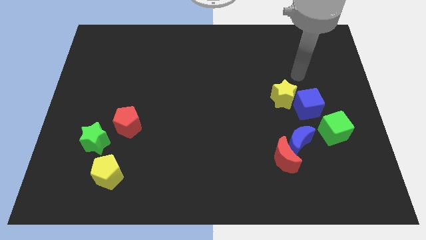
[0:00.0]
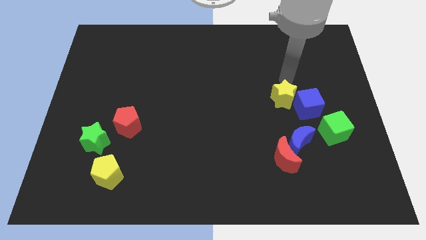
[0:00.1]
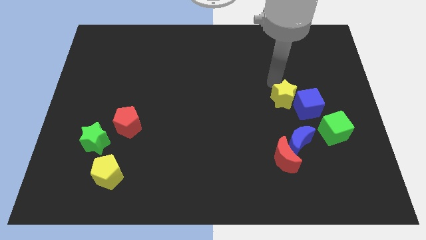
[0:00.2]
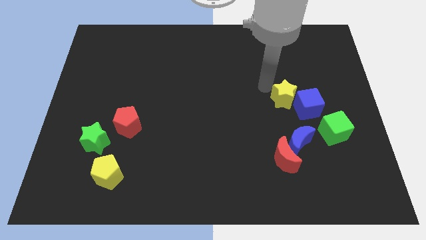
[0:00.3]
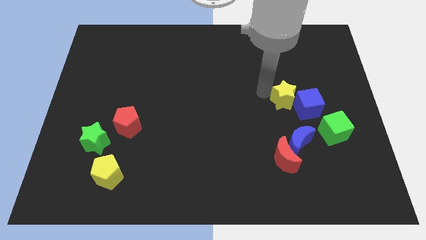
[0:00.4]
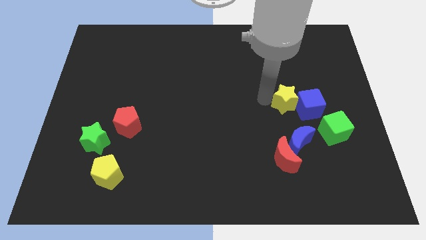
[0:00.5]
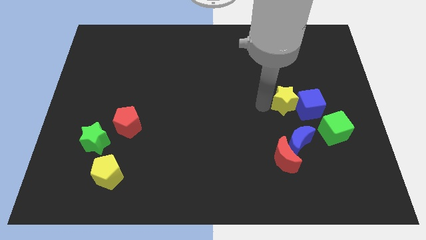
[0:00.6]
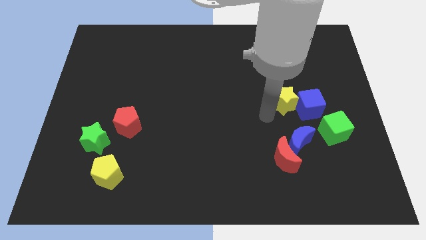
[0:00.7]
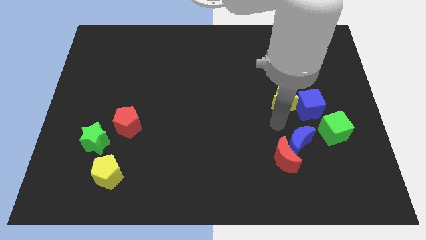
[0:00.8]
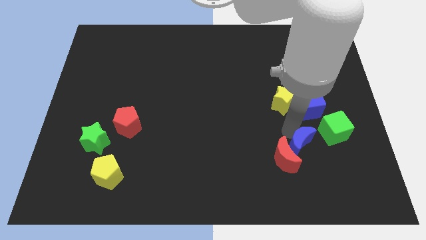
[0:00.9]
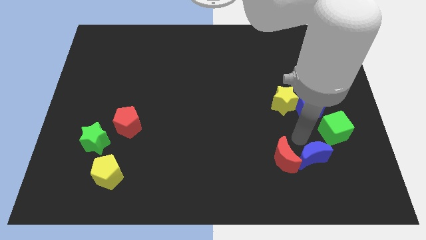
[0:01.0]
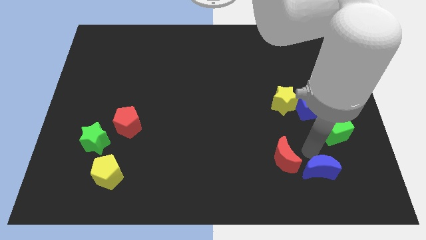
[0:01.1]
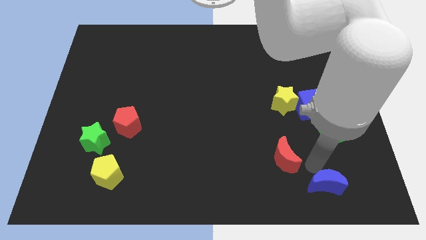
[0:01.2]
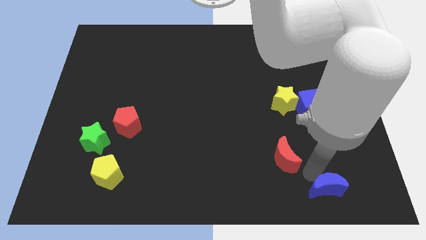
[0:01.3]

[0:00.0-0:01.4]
move the red moon away from the blue moon

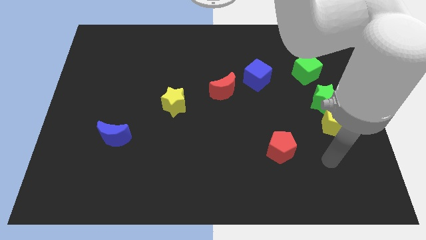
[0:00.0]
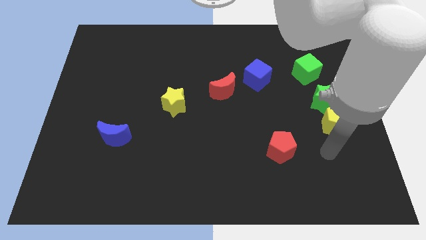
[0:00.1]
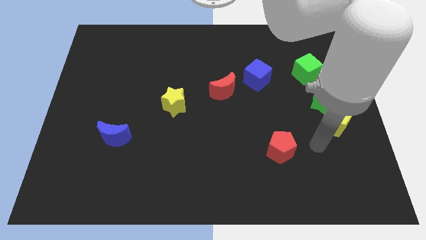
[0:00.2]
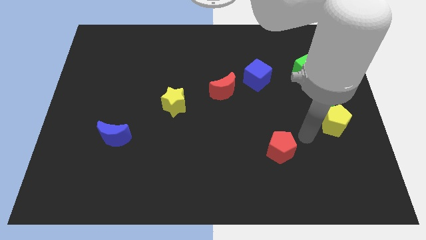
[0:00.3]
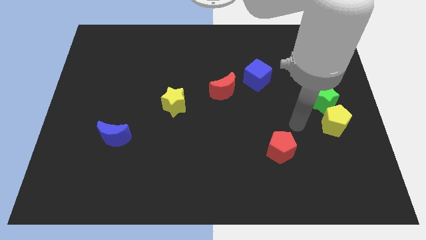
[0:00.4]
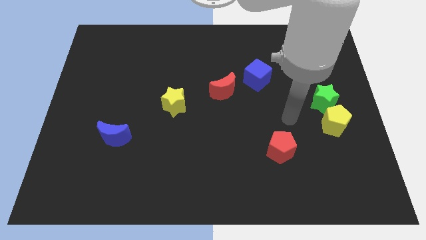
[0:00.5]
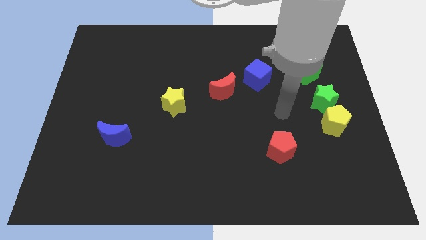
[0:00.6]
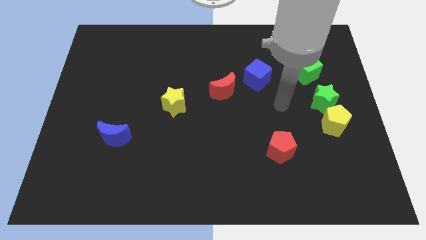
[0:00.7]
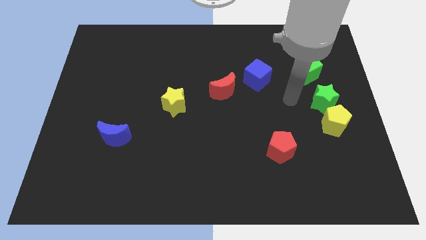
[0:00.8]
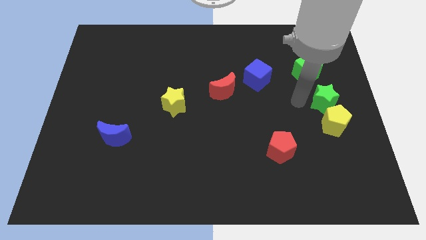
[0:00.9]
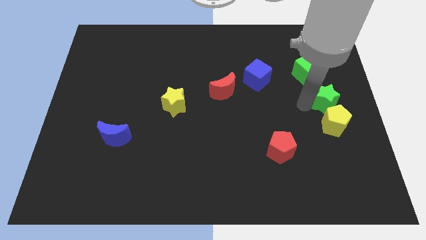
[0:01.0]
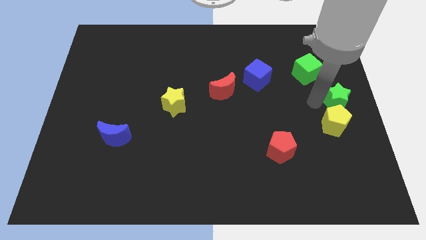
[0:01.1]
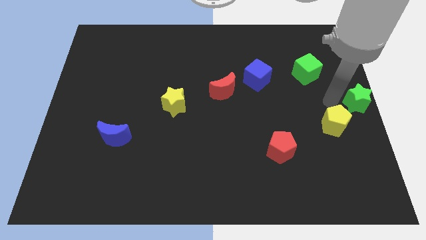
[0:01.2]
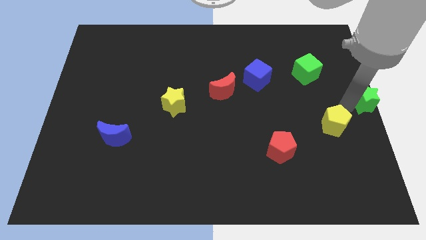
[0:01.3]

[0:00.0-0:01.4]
move the yellow pentagon away from the green star

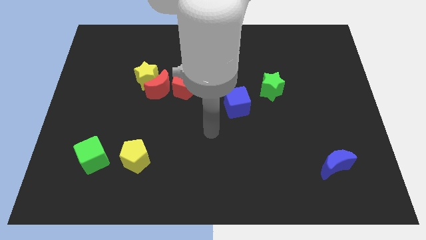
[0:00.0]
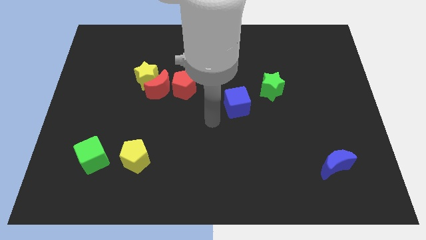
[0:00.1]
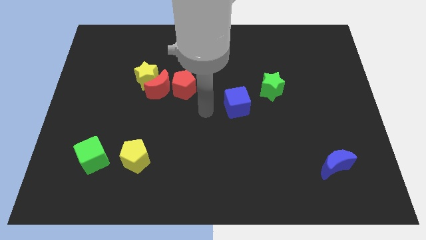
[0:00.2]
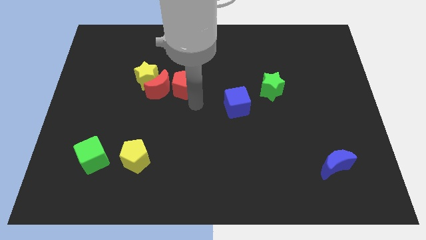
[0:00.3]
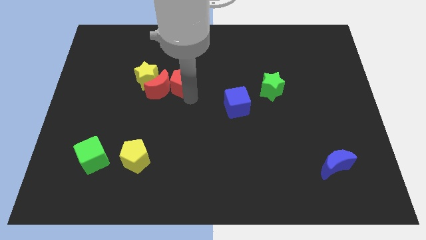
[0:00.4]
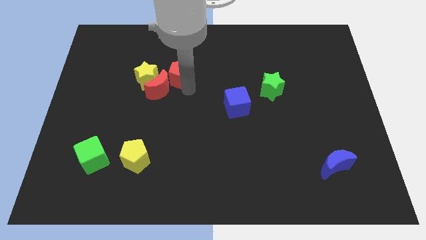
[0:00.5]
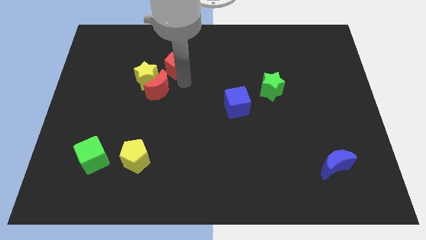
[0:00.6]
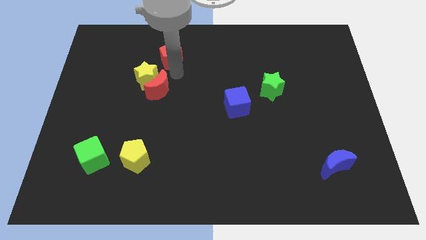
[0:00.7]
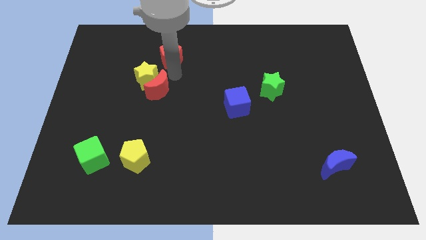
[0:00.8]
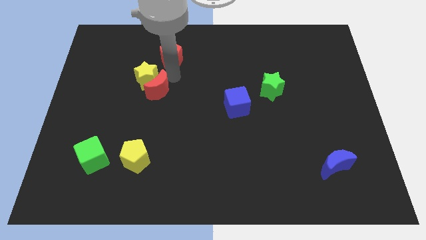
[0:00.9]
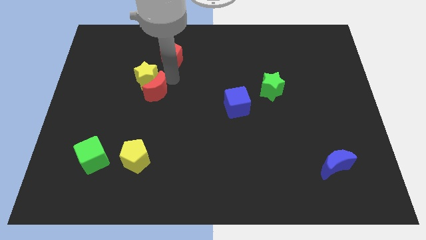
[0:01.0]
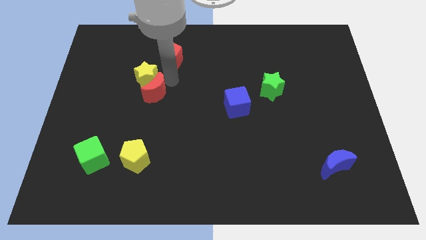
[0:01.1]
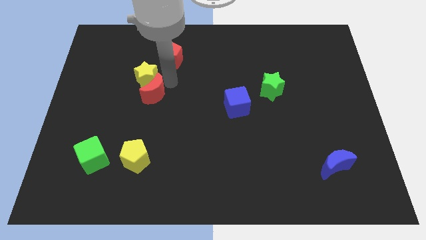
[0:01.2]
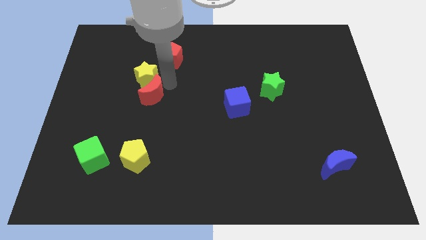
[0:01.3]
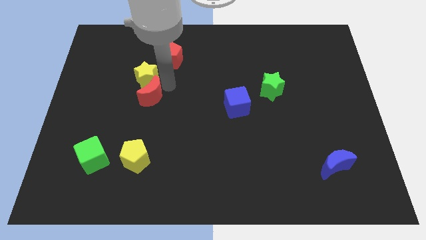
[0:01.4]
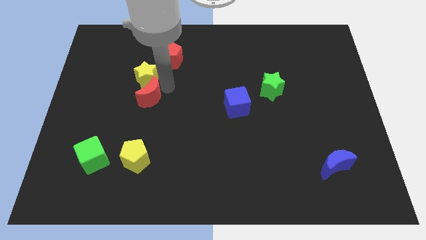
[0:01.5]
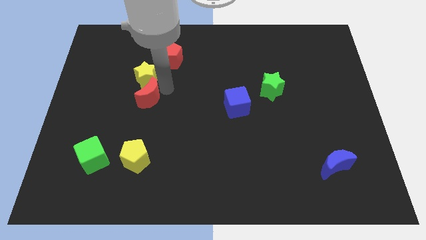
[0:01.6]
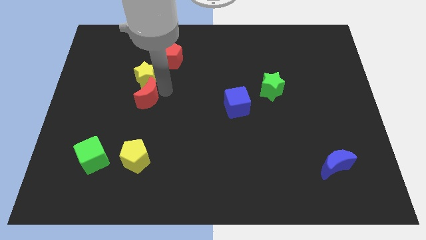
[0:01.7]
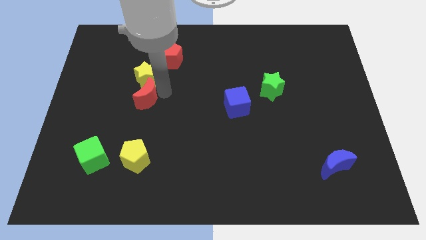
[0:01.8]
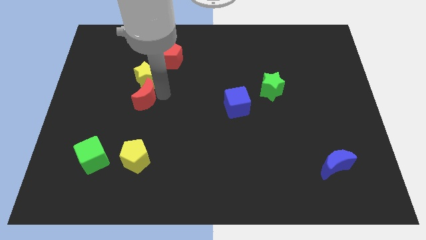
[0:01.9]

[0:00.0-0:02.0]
move the red moon away from the yellow star and red pentagon

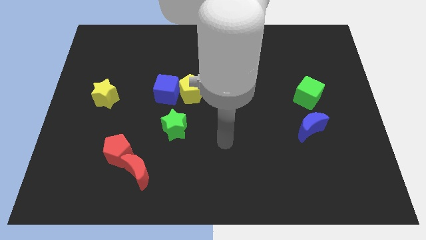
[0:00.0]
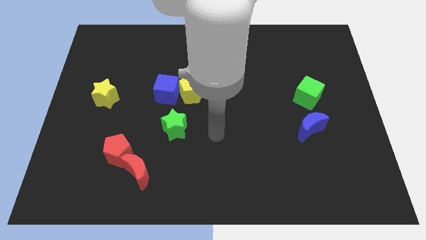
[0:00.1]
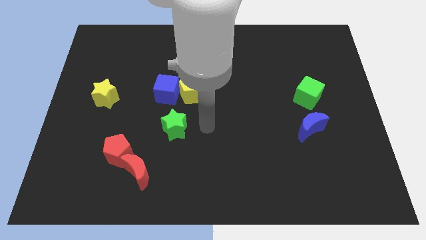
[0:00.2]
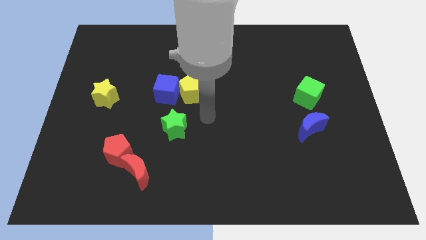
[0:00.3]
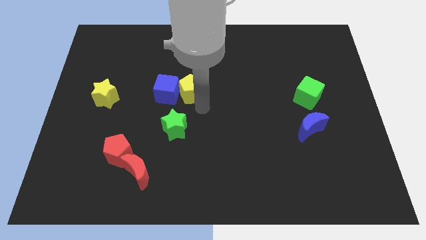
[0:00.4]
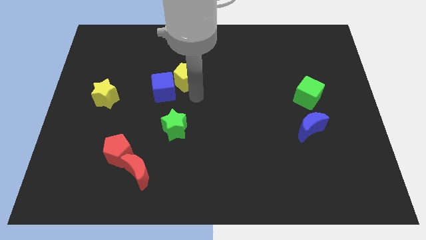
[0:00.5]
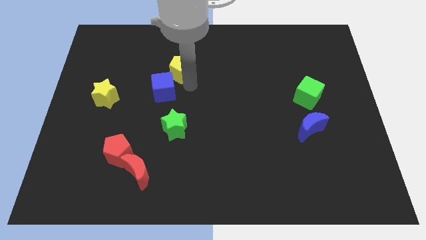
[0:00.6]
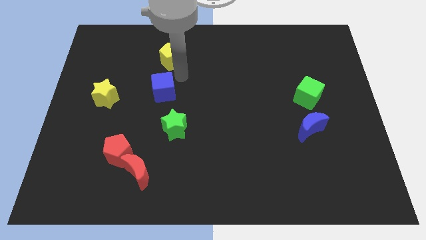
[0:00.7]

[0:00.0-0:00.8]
separate the blue cube from the yellow pentagon

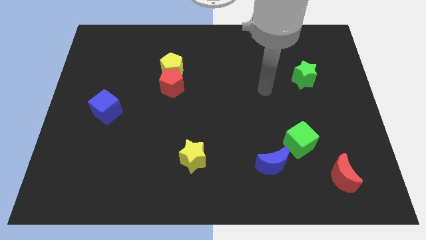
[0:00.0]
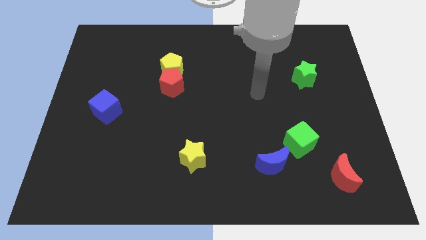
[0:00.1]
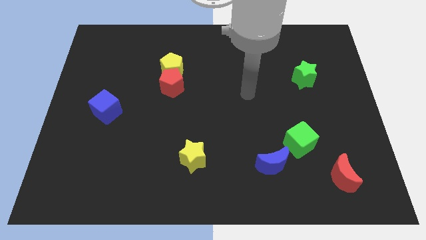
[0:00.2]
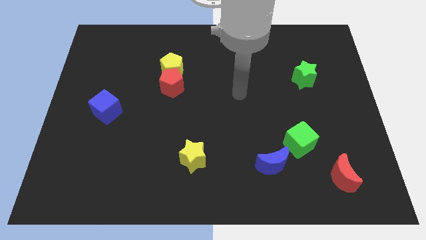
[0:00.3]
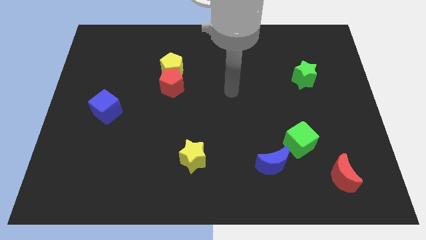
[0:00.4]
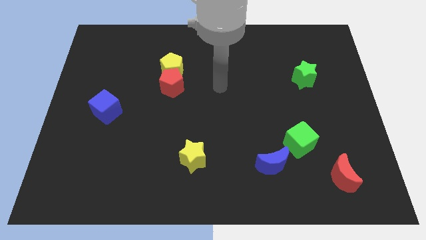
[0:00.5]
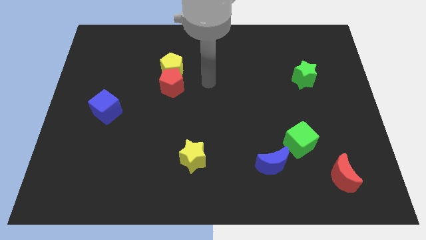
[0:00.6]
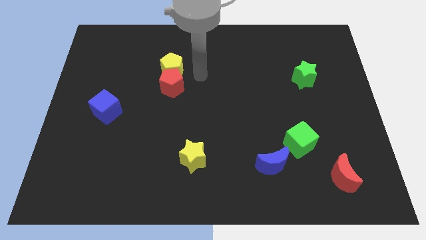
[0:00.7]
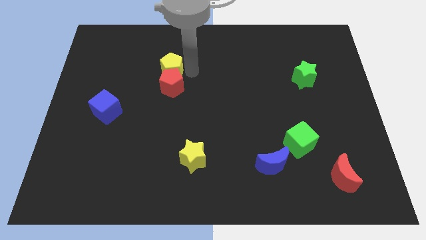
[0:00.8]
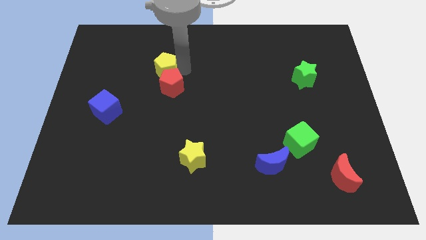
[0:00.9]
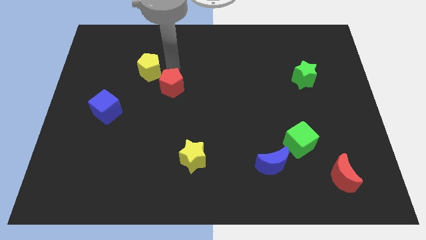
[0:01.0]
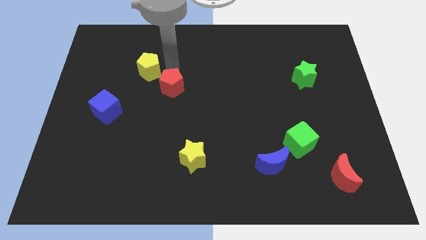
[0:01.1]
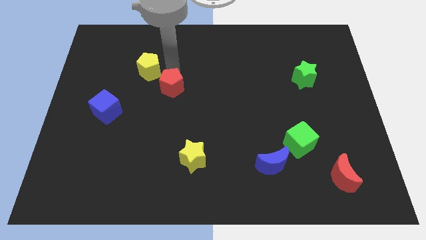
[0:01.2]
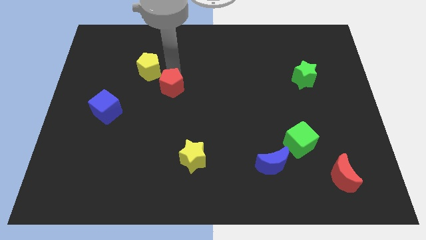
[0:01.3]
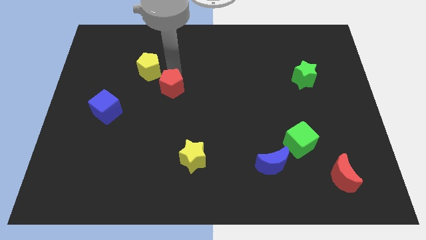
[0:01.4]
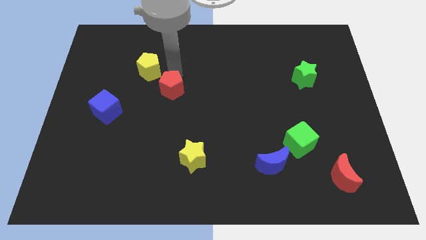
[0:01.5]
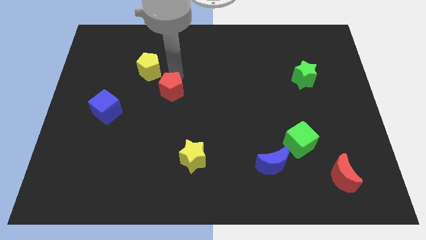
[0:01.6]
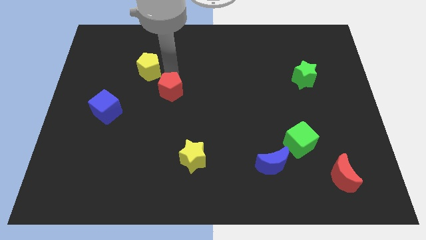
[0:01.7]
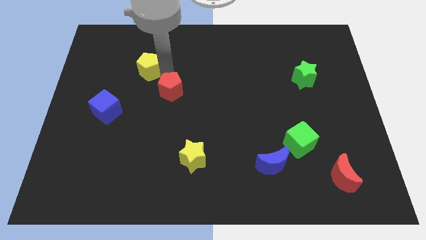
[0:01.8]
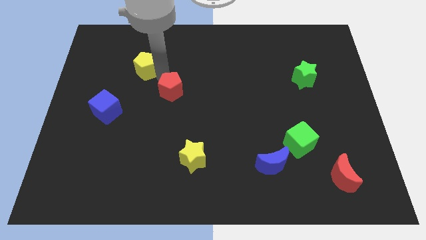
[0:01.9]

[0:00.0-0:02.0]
move the red pentagon away from the yellow pentagon

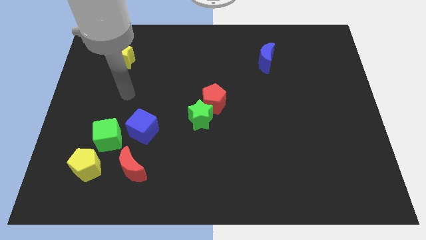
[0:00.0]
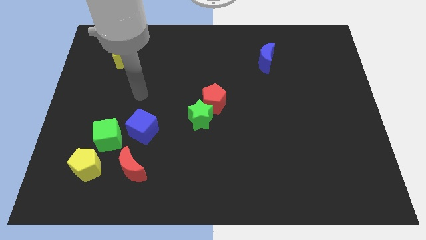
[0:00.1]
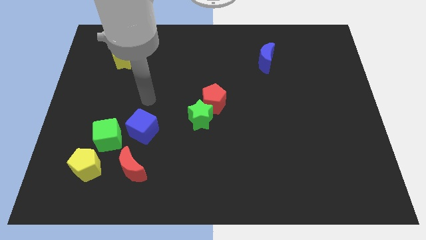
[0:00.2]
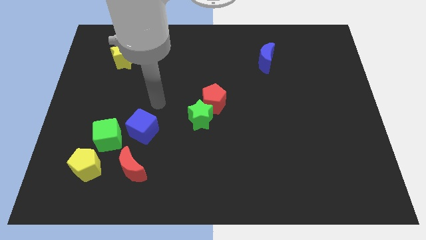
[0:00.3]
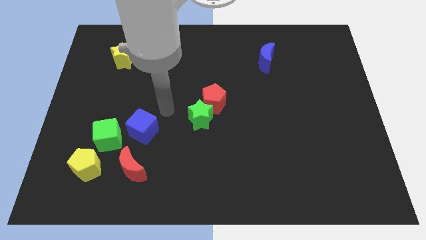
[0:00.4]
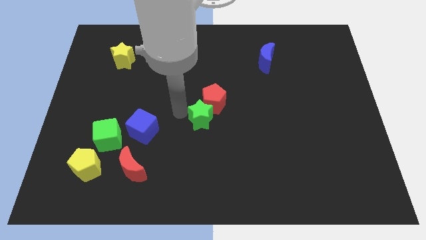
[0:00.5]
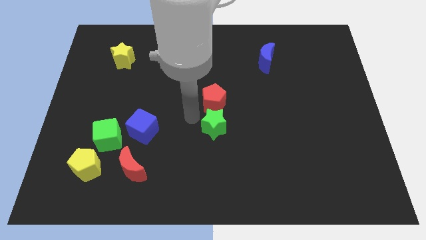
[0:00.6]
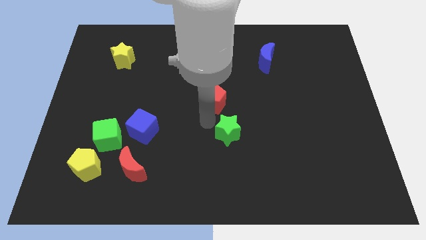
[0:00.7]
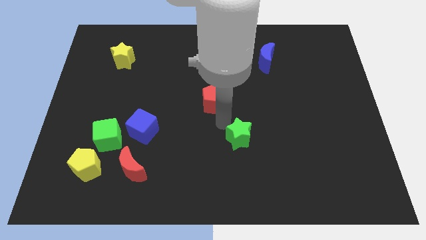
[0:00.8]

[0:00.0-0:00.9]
pull the red pentagon apart from the green star

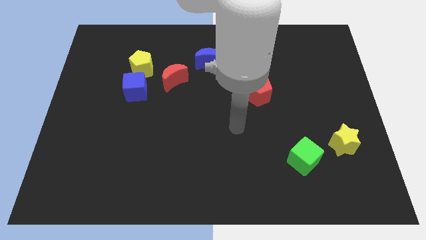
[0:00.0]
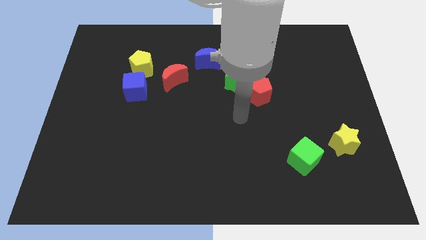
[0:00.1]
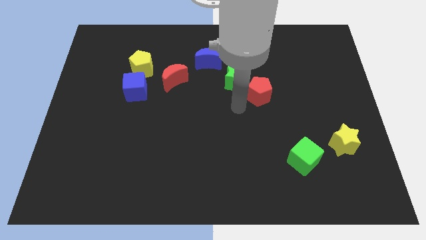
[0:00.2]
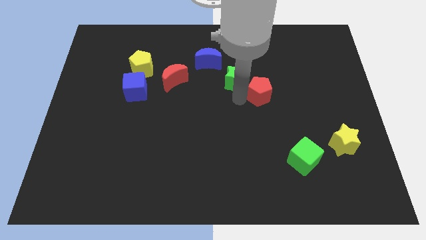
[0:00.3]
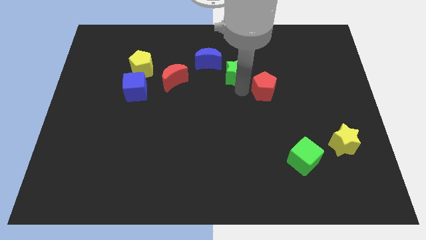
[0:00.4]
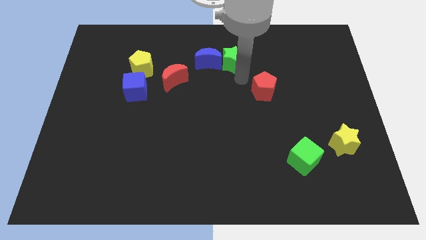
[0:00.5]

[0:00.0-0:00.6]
separate the red pentagon from the green star
